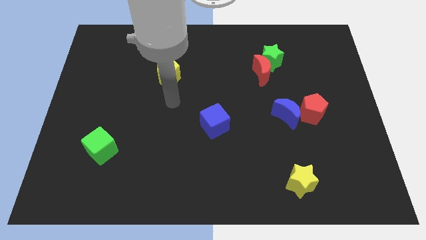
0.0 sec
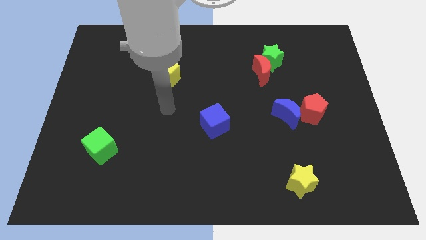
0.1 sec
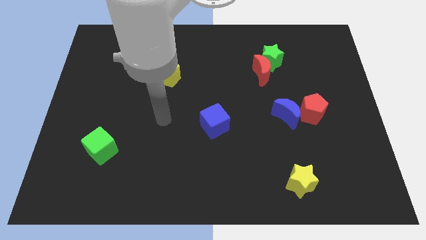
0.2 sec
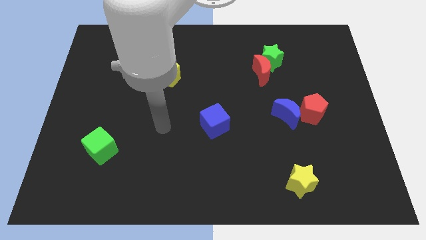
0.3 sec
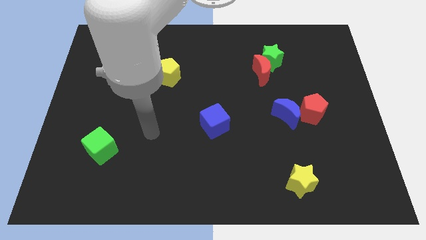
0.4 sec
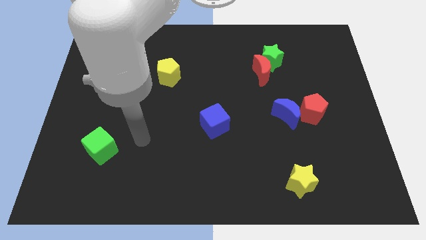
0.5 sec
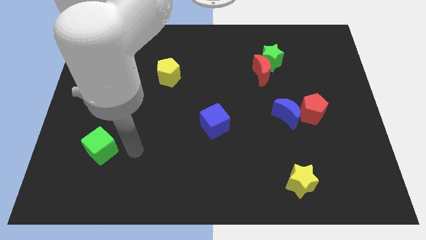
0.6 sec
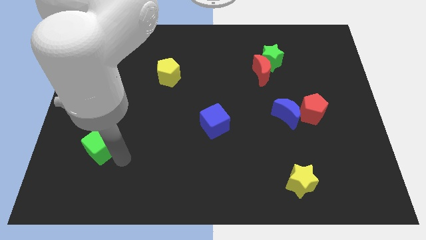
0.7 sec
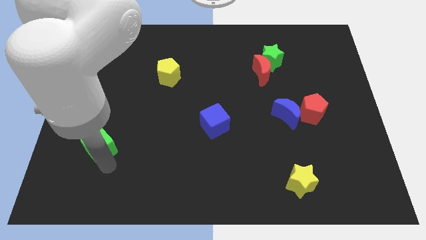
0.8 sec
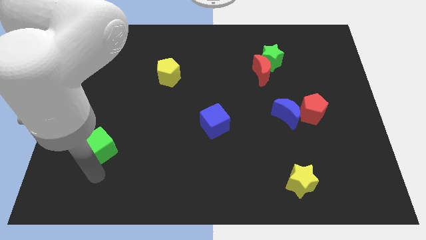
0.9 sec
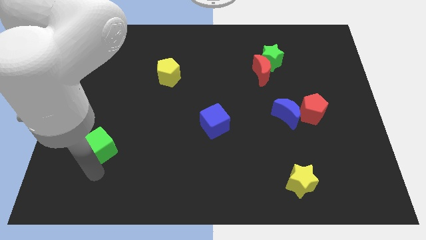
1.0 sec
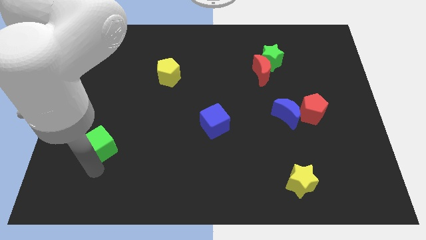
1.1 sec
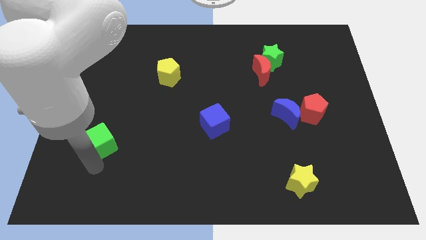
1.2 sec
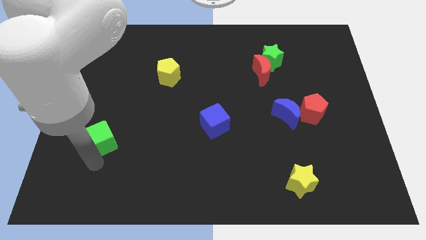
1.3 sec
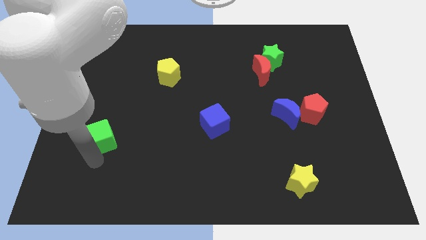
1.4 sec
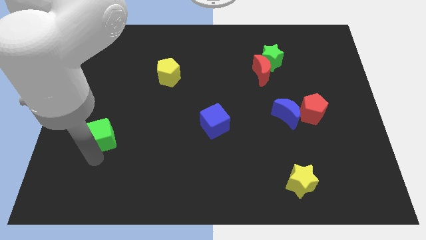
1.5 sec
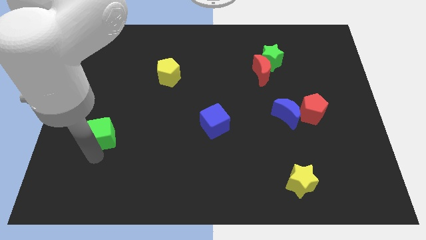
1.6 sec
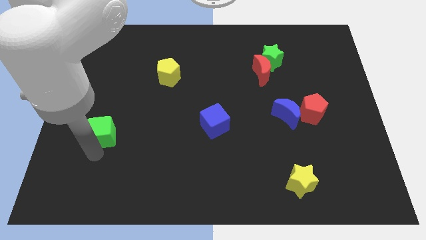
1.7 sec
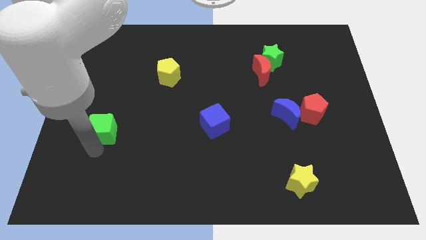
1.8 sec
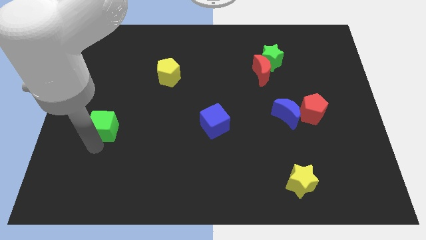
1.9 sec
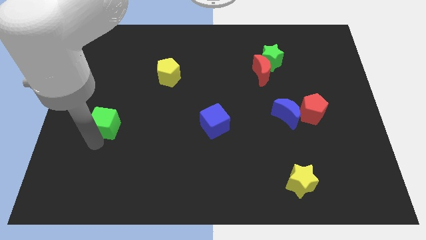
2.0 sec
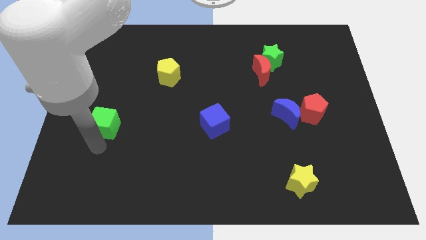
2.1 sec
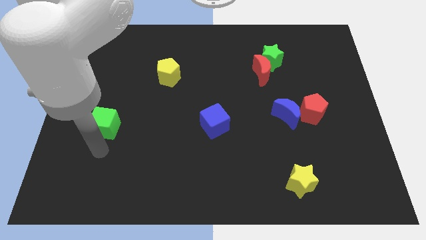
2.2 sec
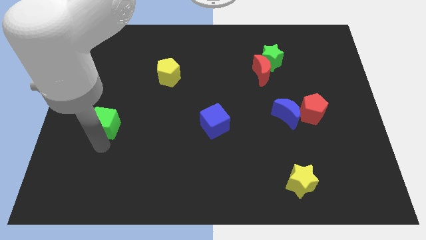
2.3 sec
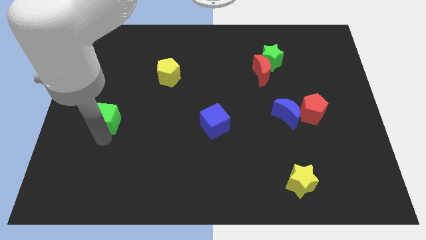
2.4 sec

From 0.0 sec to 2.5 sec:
move the green cube slightly up

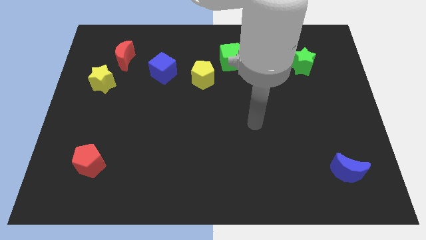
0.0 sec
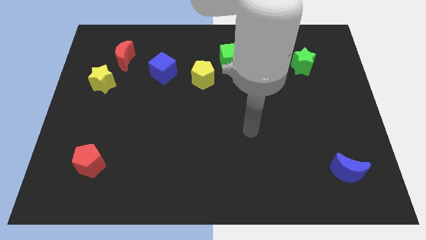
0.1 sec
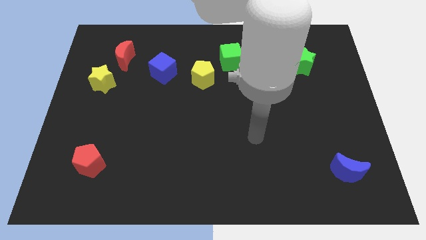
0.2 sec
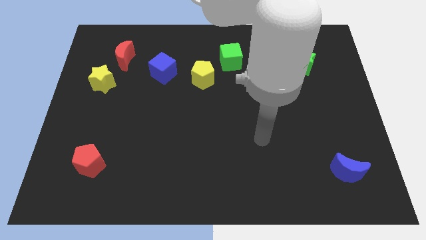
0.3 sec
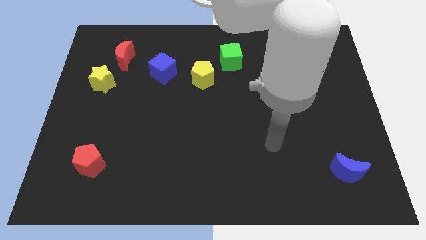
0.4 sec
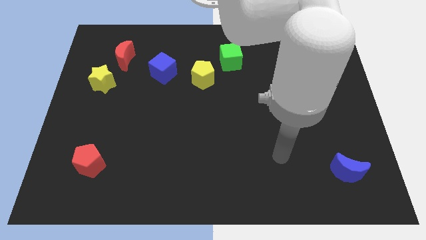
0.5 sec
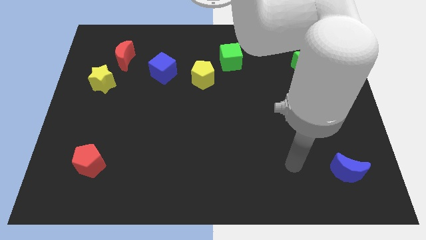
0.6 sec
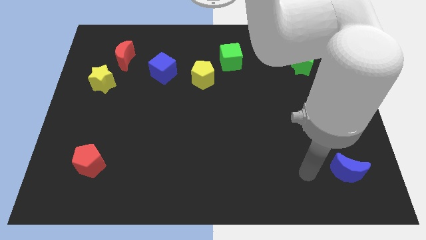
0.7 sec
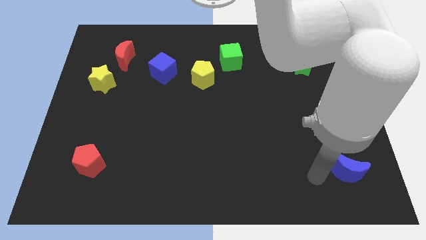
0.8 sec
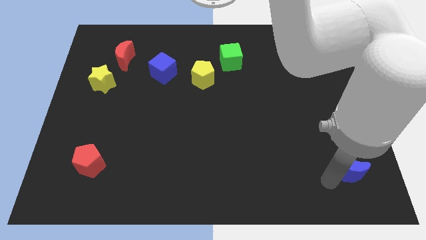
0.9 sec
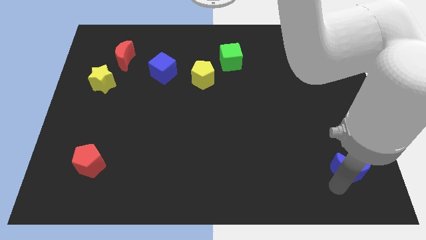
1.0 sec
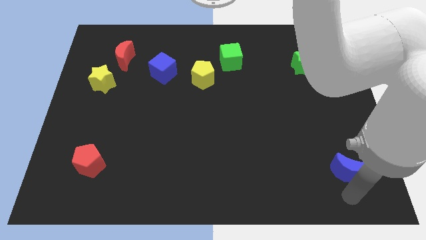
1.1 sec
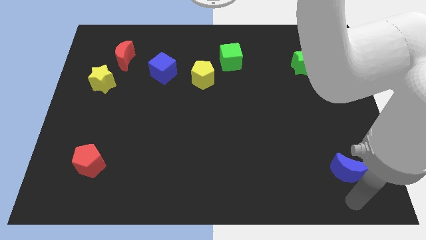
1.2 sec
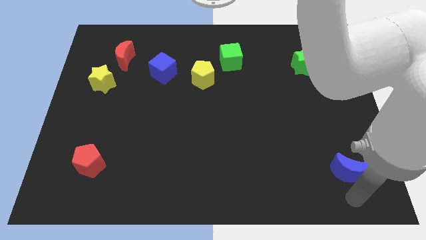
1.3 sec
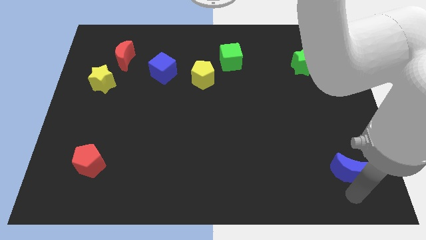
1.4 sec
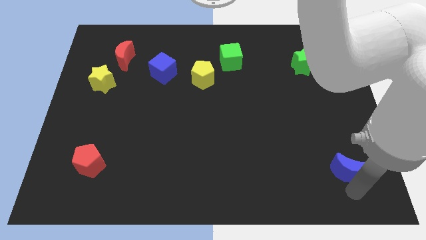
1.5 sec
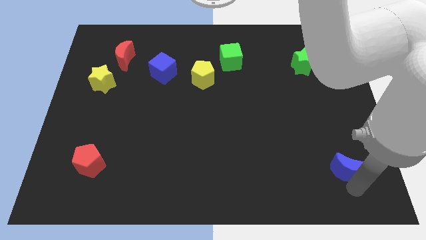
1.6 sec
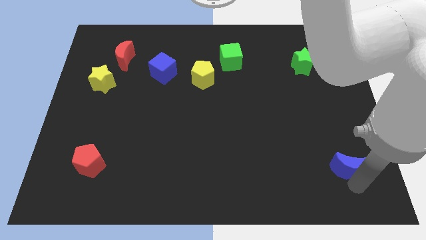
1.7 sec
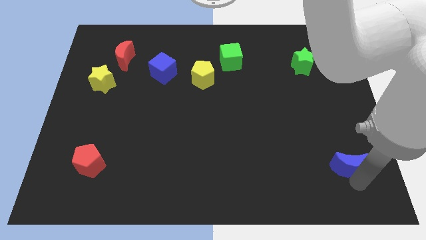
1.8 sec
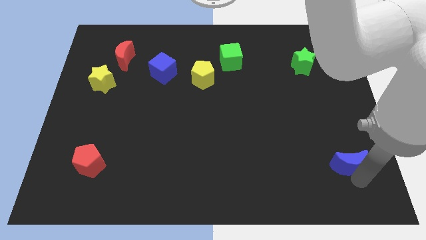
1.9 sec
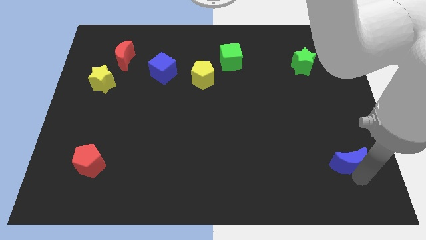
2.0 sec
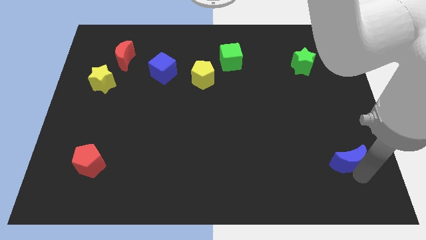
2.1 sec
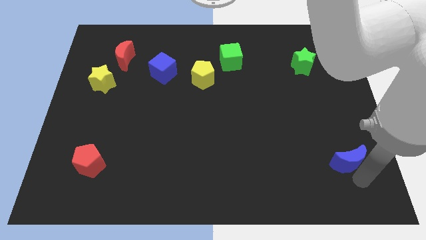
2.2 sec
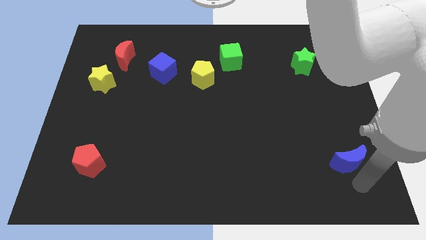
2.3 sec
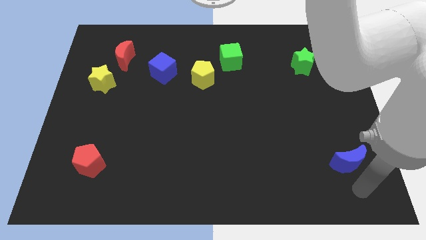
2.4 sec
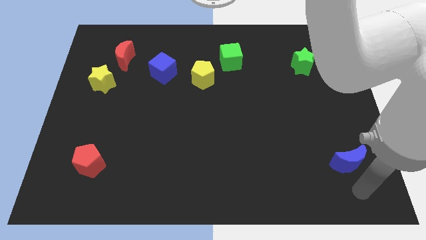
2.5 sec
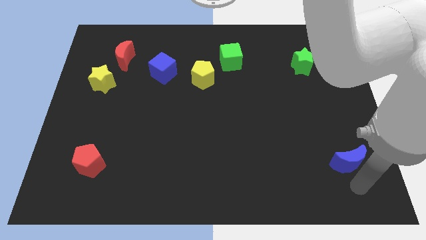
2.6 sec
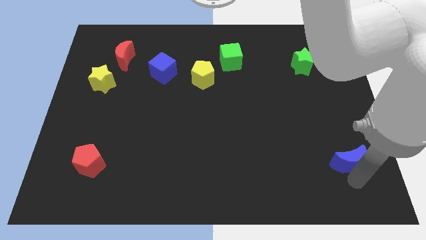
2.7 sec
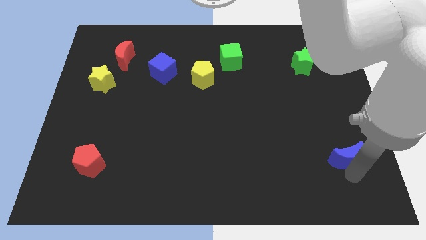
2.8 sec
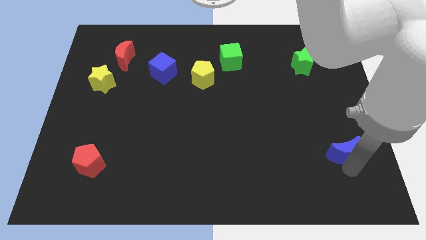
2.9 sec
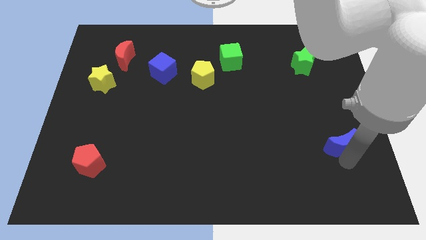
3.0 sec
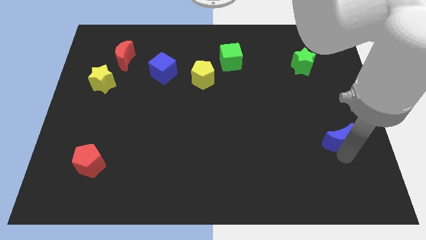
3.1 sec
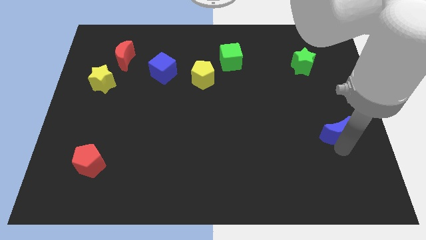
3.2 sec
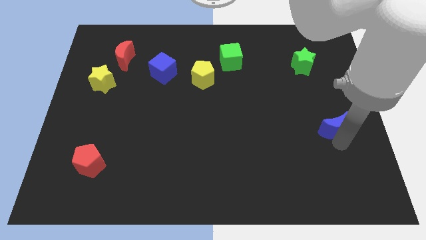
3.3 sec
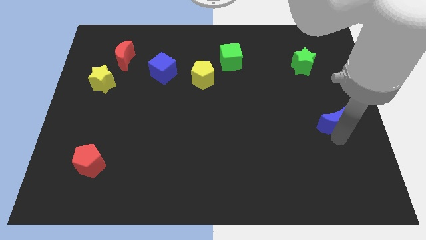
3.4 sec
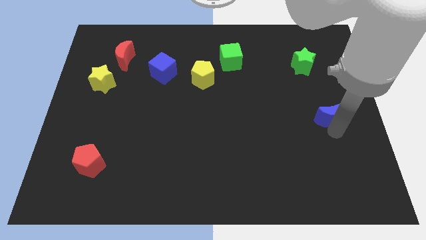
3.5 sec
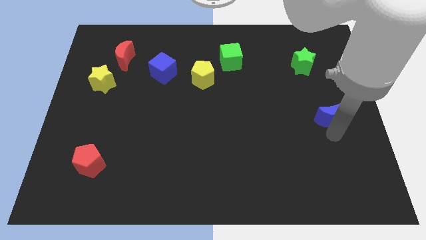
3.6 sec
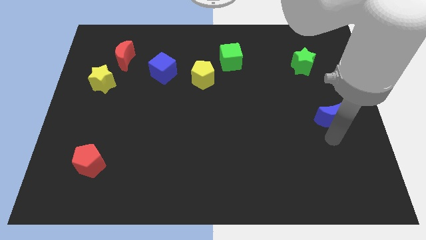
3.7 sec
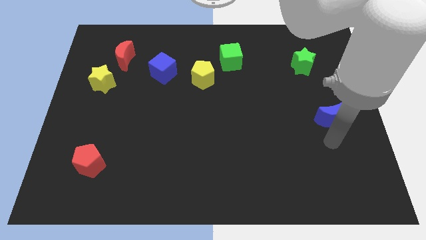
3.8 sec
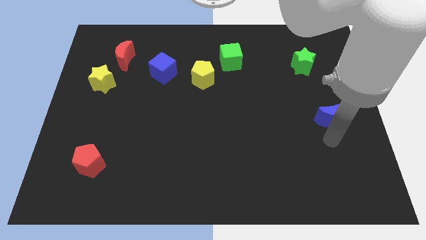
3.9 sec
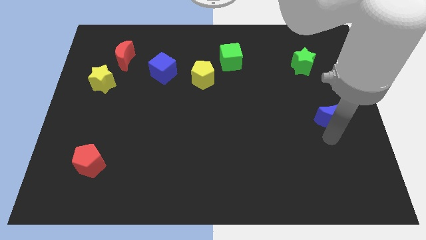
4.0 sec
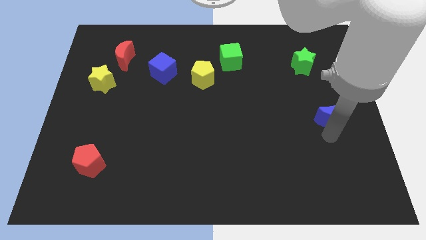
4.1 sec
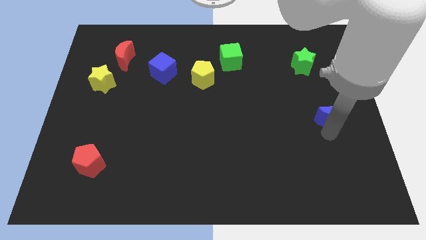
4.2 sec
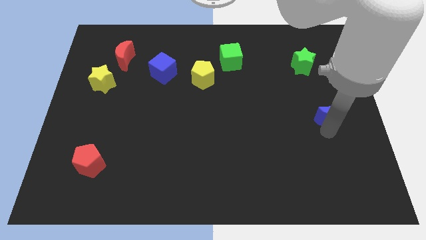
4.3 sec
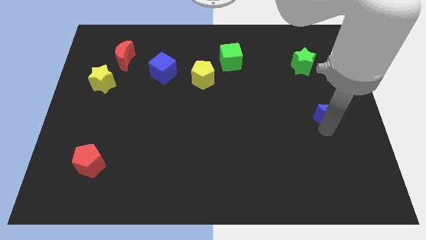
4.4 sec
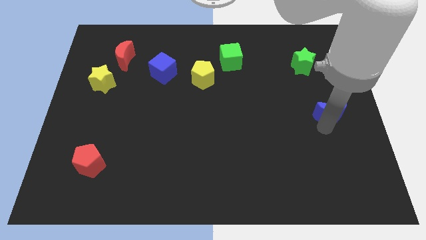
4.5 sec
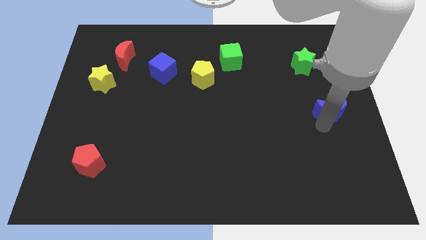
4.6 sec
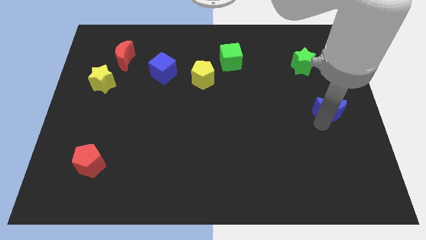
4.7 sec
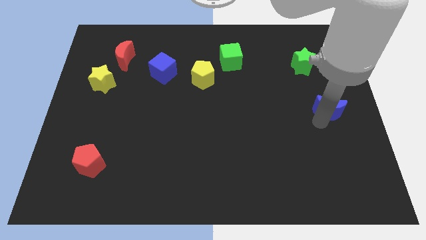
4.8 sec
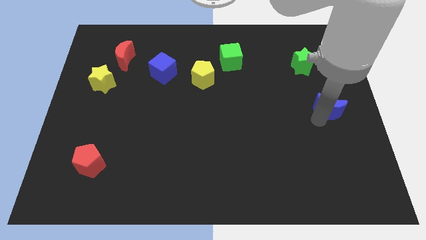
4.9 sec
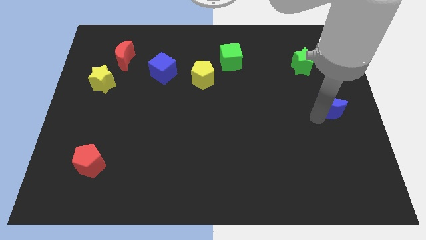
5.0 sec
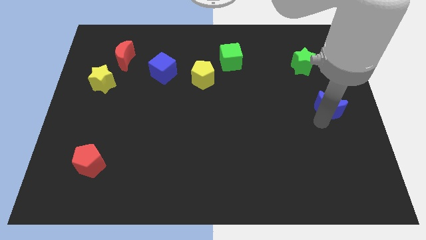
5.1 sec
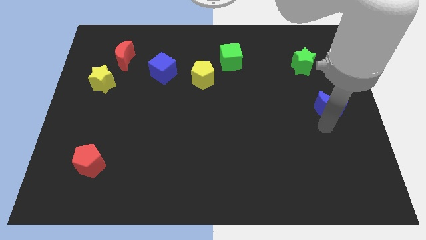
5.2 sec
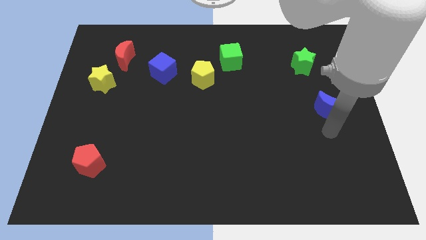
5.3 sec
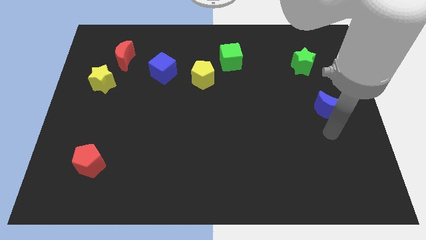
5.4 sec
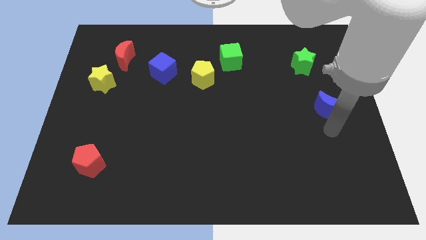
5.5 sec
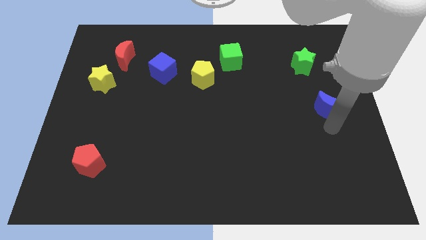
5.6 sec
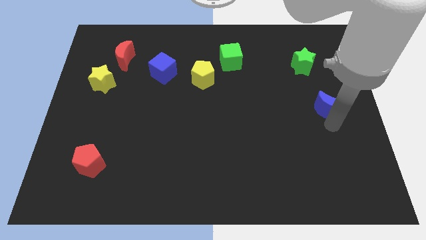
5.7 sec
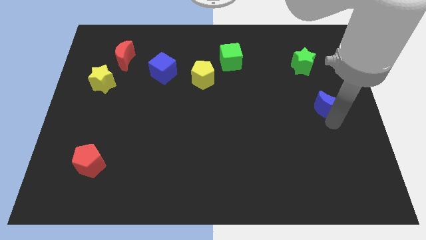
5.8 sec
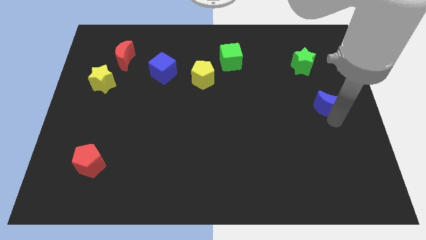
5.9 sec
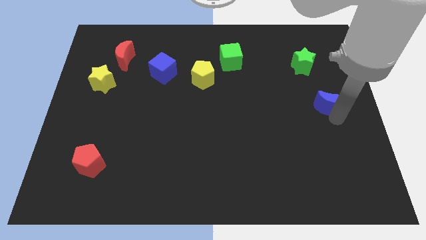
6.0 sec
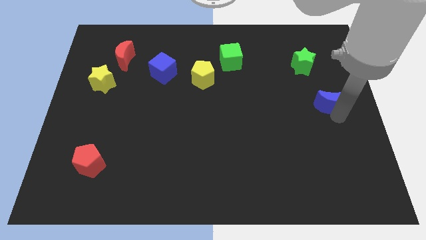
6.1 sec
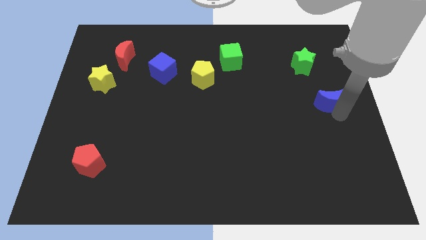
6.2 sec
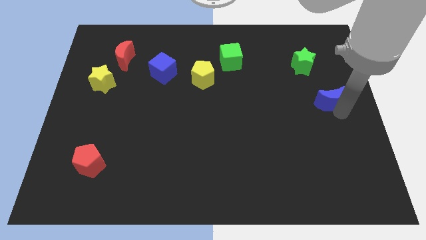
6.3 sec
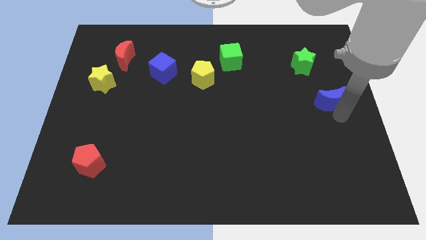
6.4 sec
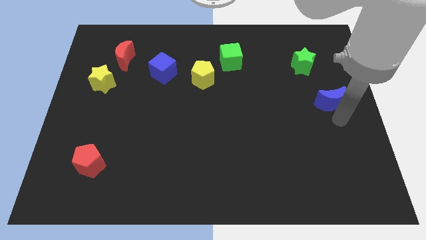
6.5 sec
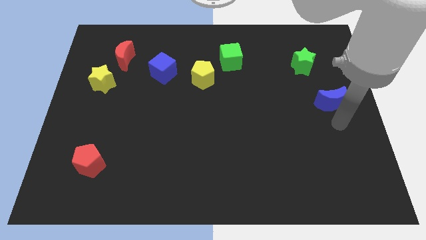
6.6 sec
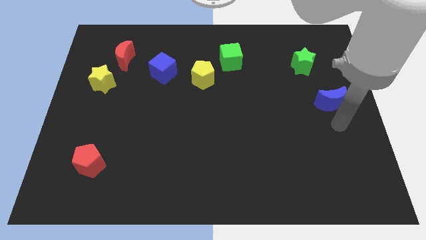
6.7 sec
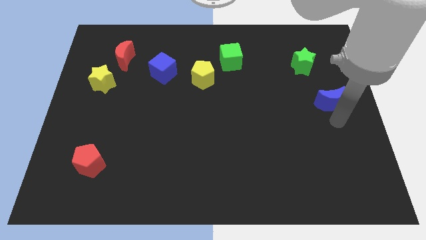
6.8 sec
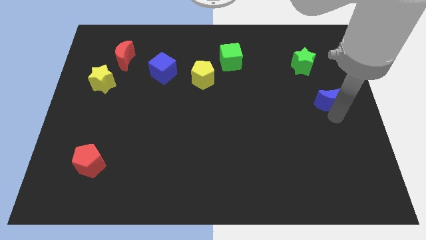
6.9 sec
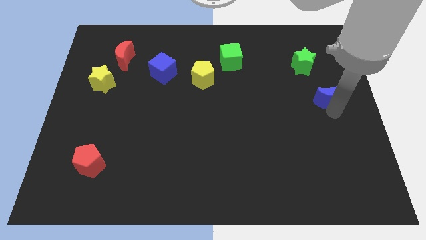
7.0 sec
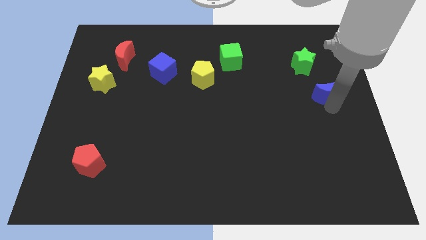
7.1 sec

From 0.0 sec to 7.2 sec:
push the blue moon upwards
